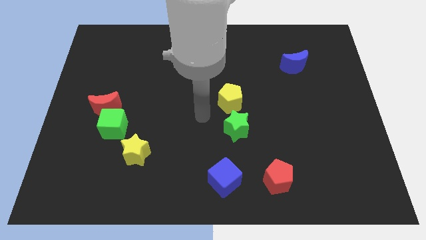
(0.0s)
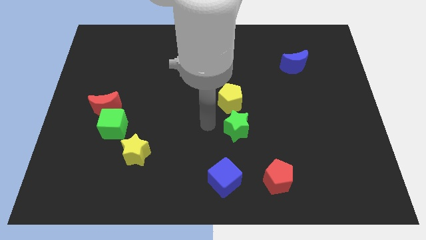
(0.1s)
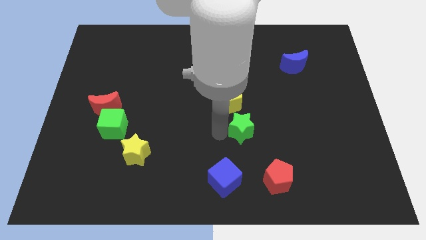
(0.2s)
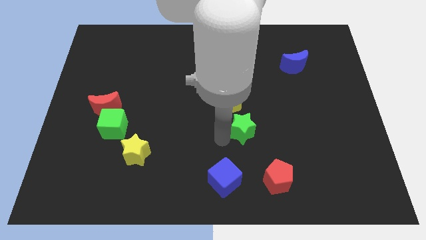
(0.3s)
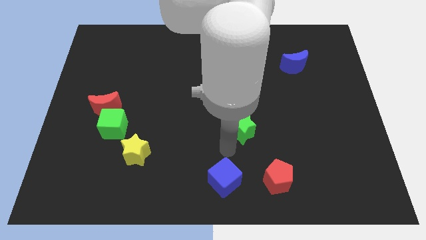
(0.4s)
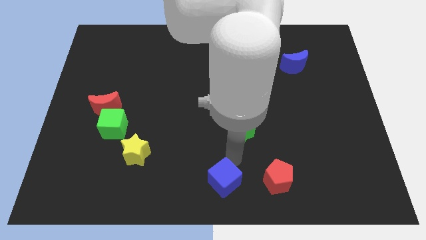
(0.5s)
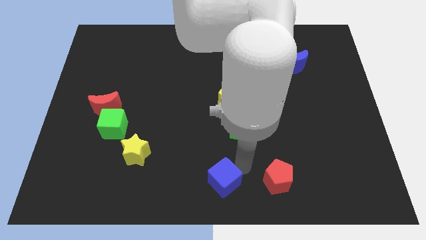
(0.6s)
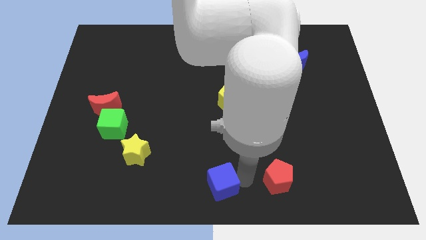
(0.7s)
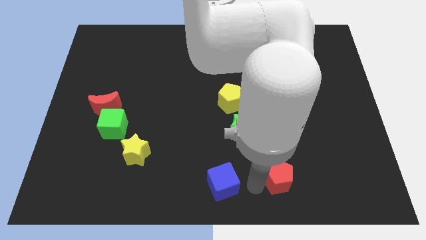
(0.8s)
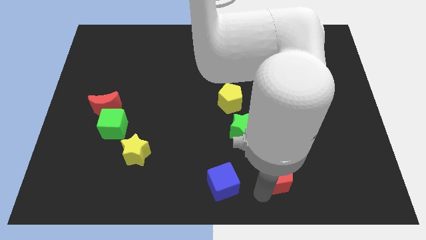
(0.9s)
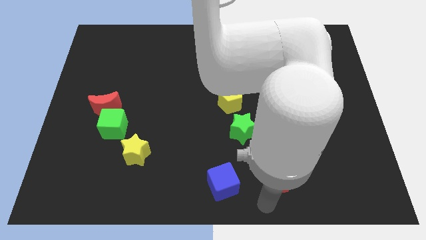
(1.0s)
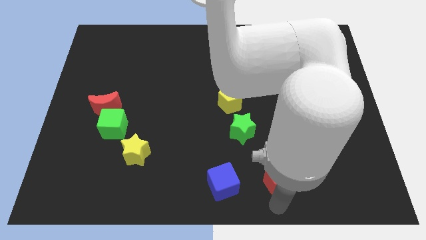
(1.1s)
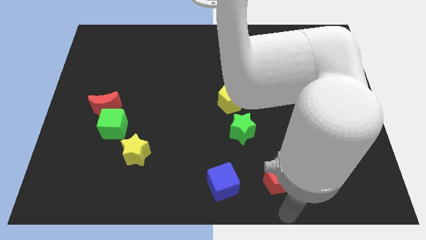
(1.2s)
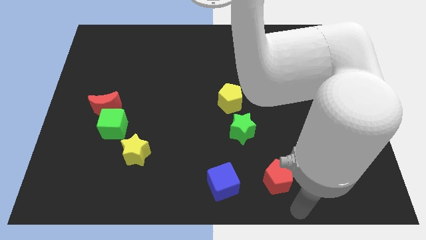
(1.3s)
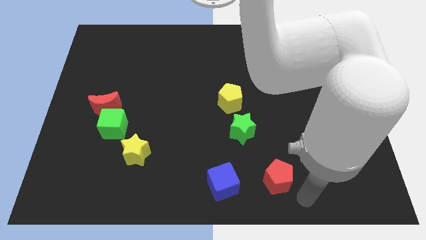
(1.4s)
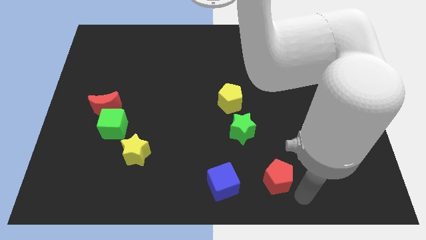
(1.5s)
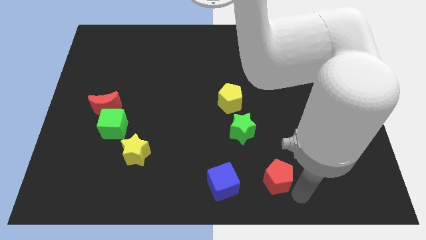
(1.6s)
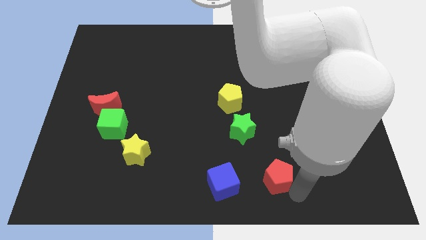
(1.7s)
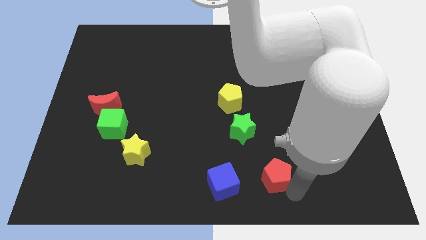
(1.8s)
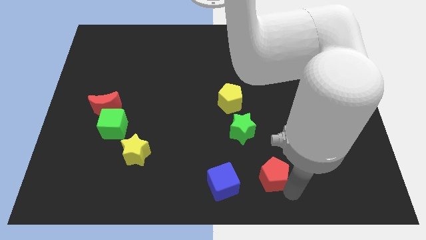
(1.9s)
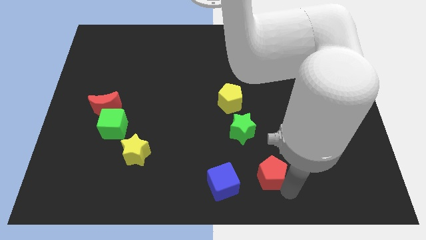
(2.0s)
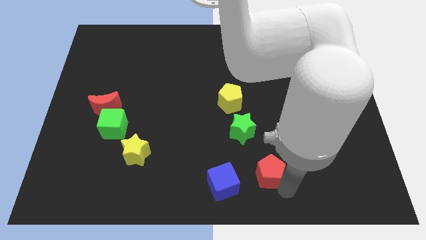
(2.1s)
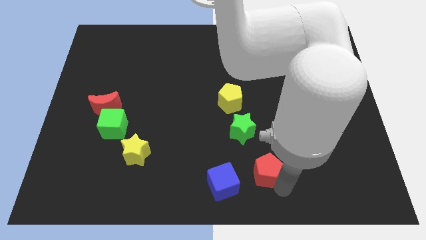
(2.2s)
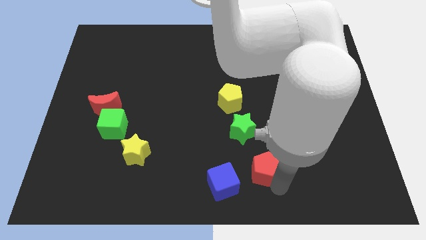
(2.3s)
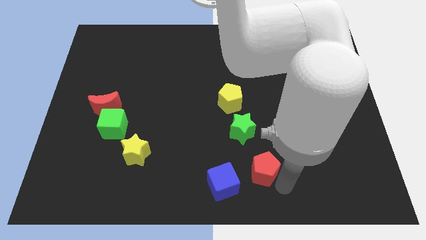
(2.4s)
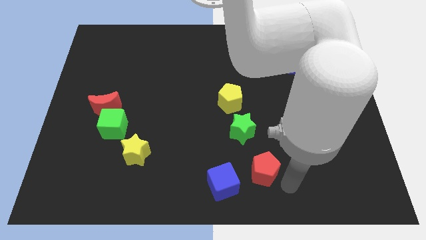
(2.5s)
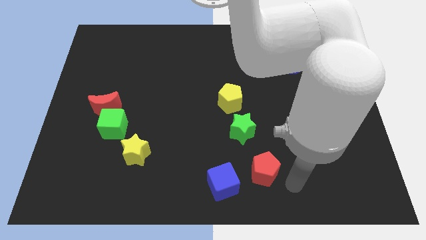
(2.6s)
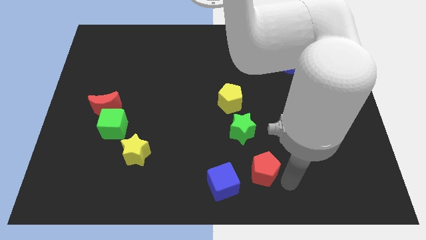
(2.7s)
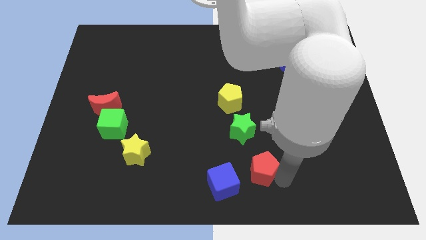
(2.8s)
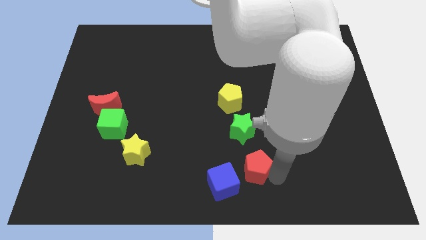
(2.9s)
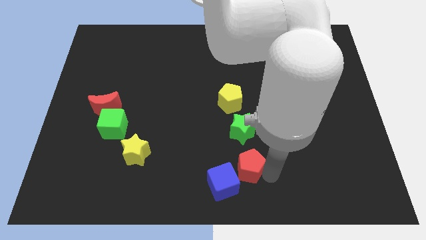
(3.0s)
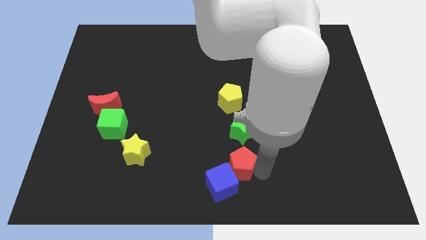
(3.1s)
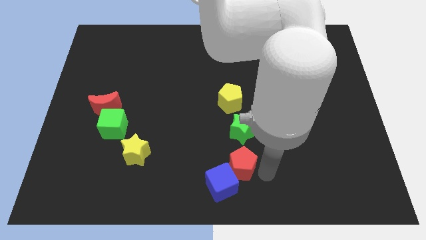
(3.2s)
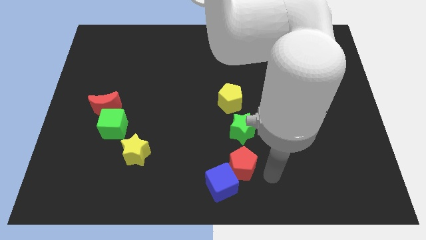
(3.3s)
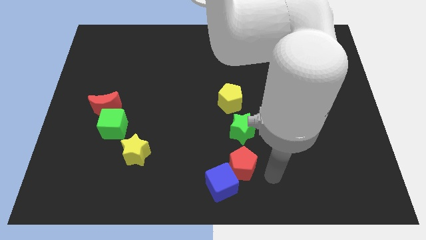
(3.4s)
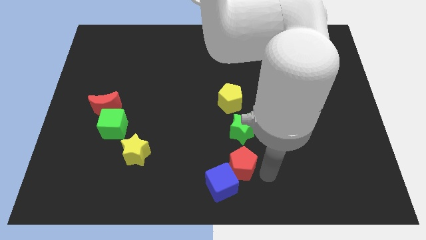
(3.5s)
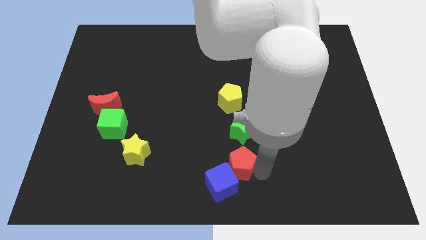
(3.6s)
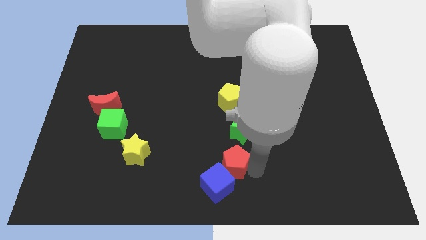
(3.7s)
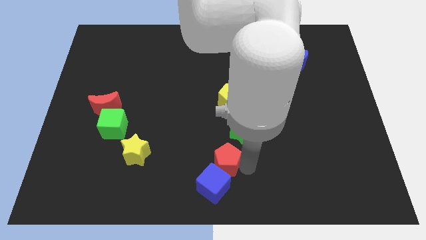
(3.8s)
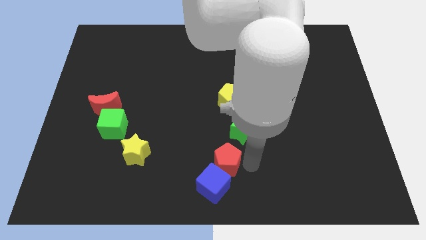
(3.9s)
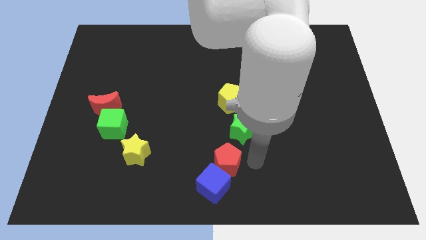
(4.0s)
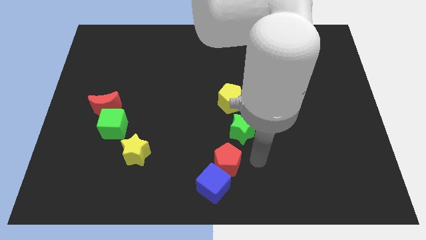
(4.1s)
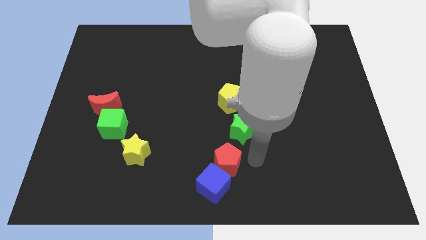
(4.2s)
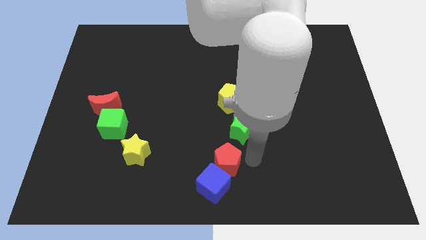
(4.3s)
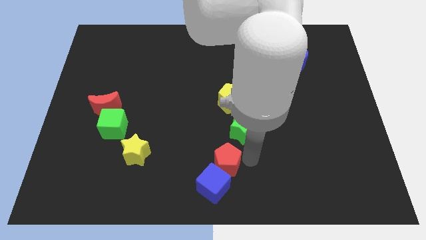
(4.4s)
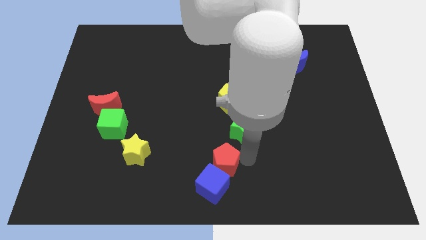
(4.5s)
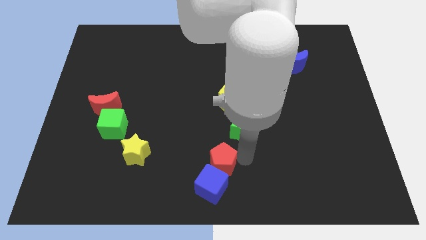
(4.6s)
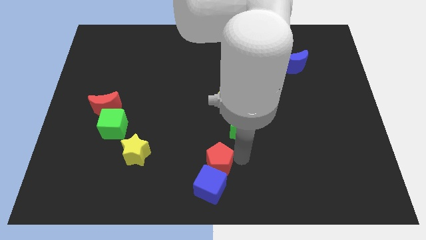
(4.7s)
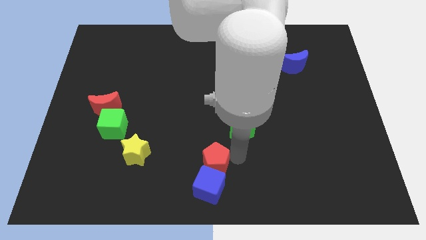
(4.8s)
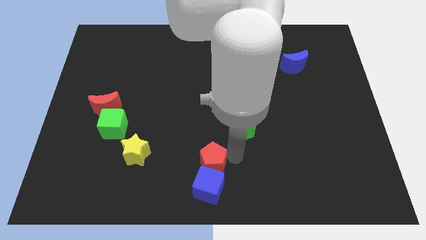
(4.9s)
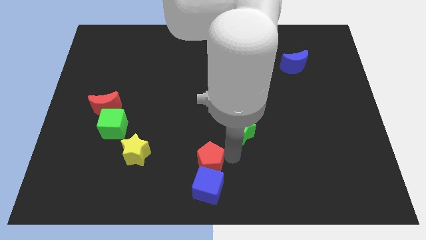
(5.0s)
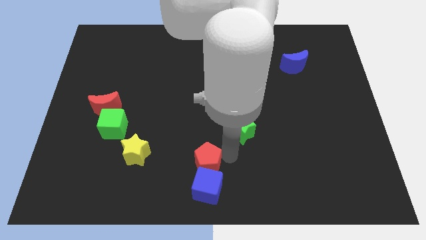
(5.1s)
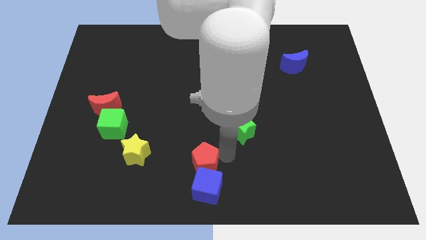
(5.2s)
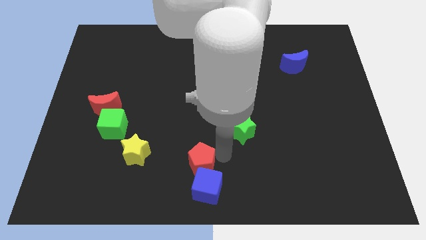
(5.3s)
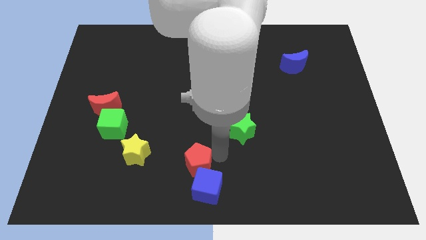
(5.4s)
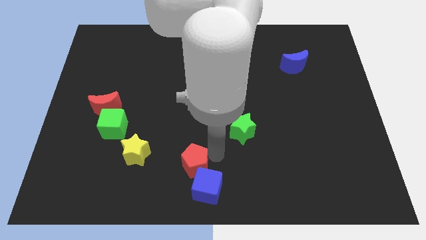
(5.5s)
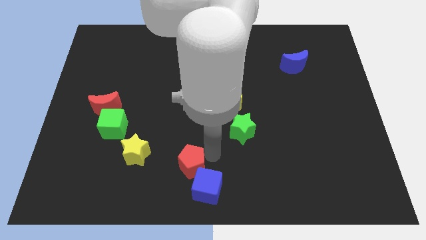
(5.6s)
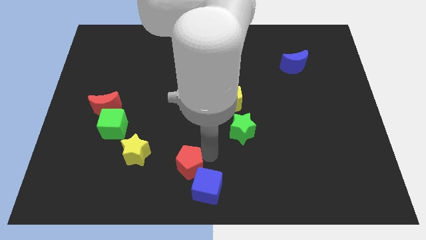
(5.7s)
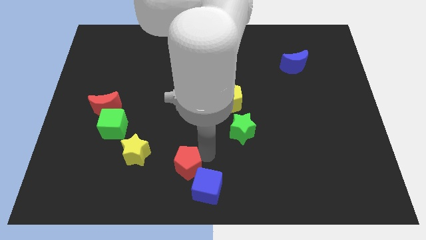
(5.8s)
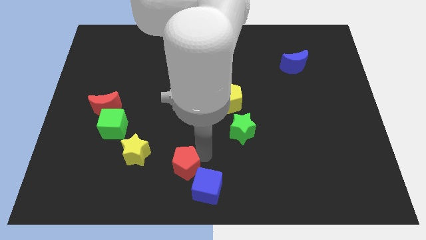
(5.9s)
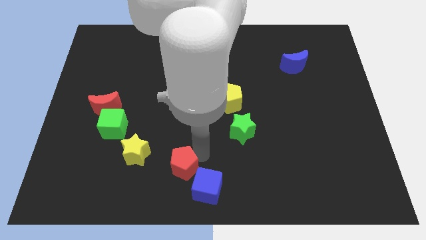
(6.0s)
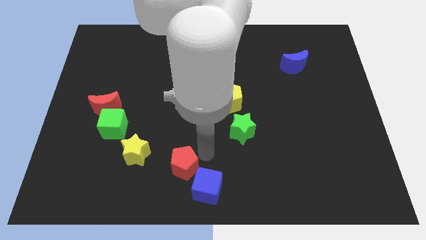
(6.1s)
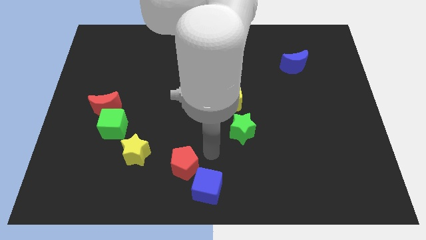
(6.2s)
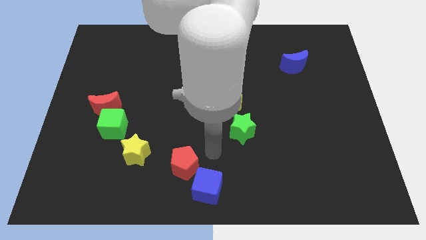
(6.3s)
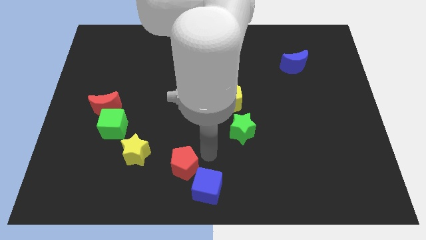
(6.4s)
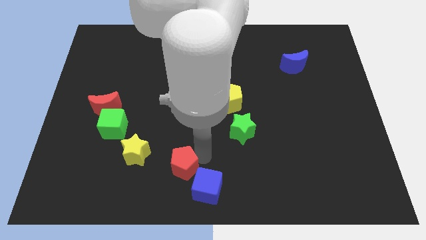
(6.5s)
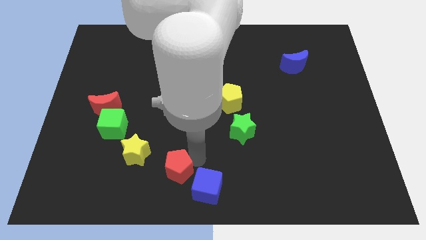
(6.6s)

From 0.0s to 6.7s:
slide the red pentagon left

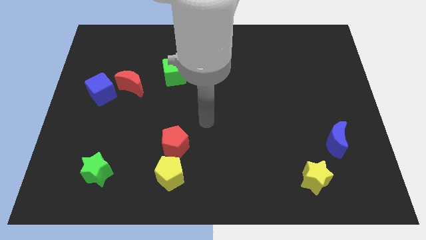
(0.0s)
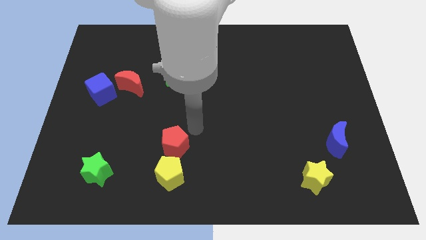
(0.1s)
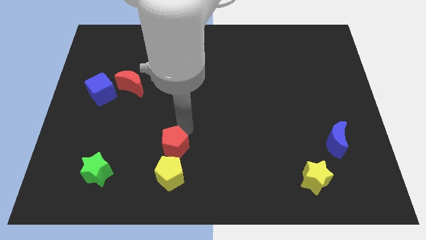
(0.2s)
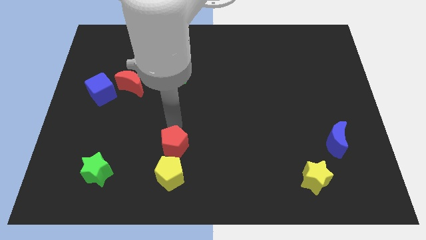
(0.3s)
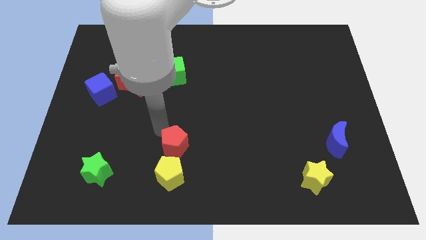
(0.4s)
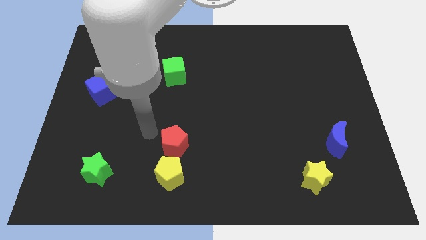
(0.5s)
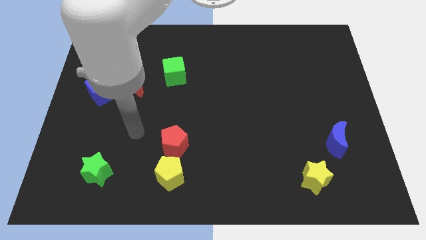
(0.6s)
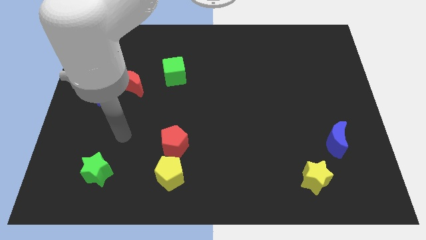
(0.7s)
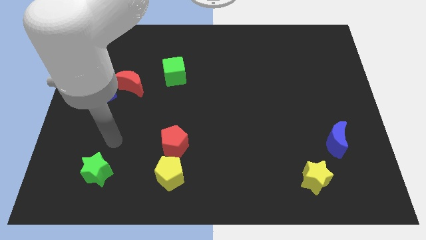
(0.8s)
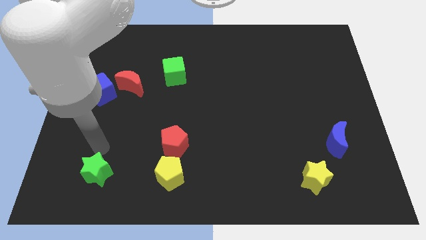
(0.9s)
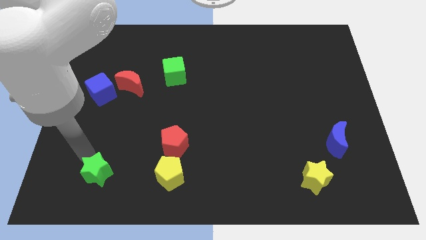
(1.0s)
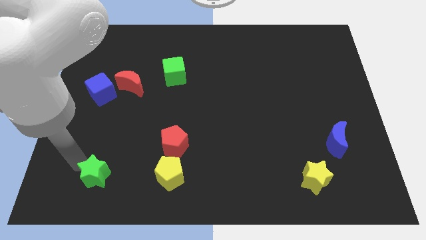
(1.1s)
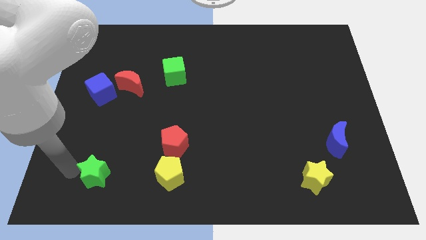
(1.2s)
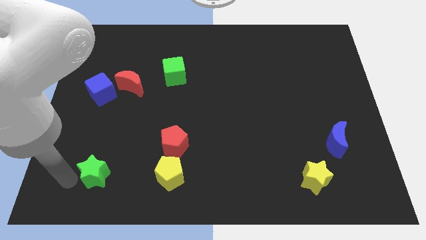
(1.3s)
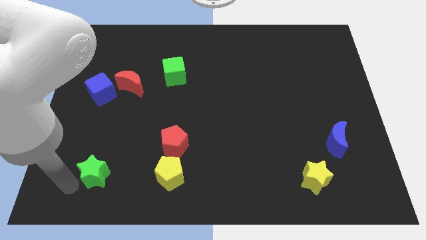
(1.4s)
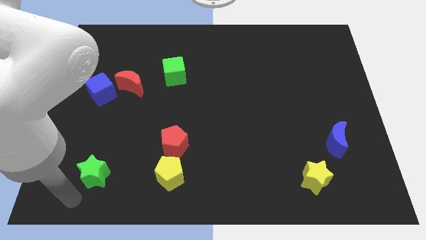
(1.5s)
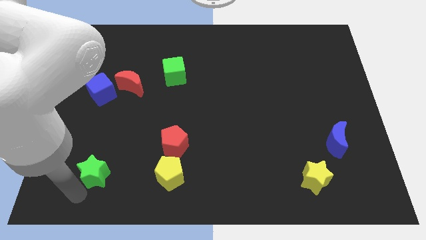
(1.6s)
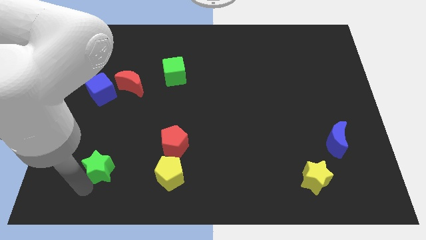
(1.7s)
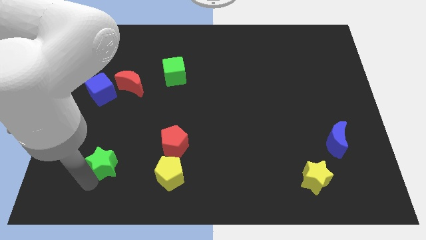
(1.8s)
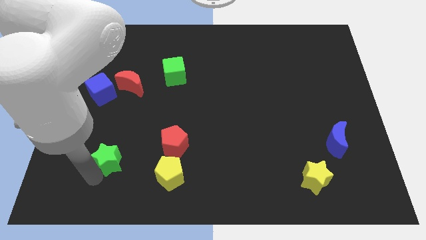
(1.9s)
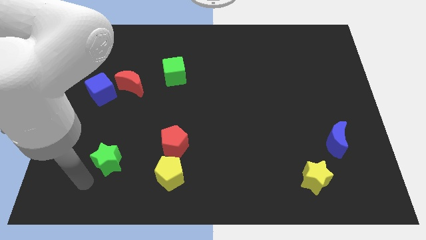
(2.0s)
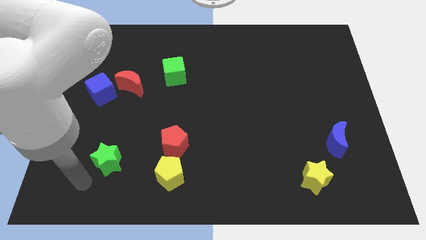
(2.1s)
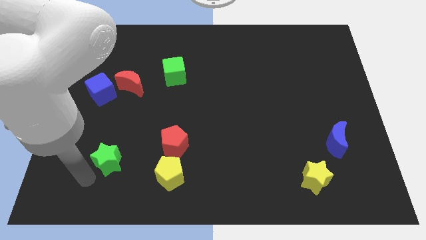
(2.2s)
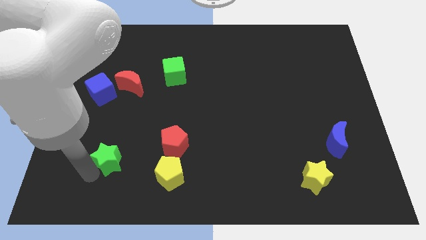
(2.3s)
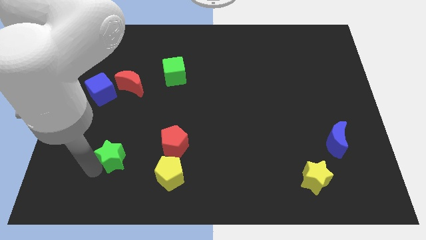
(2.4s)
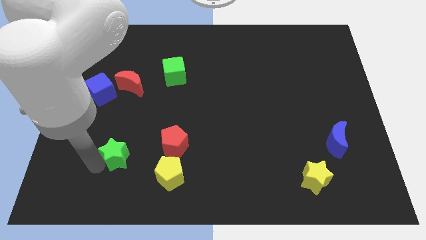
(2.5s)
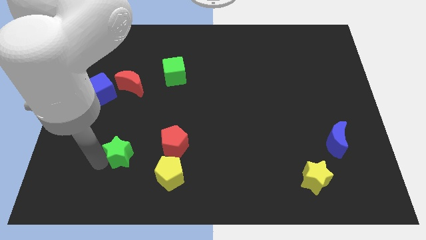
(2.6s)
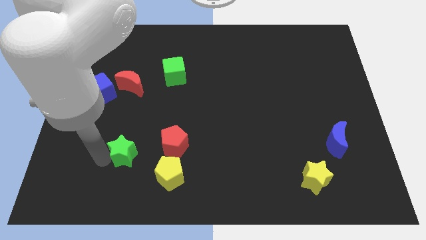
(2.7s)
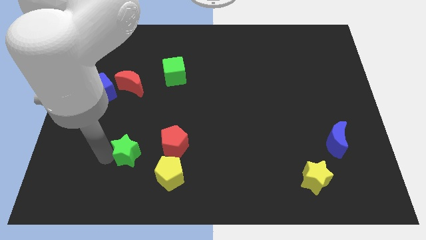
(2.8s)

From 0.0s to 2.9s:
slide the green star somewhat diagonally up and right
